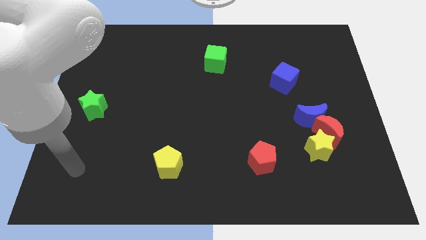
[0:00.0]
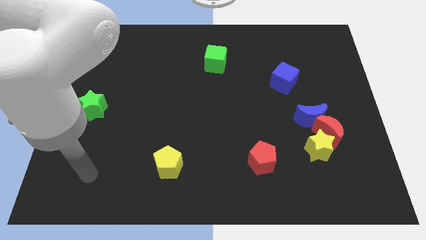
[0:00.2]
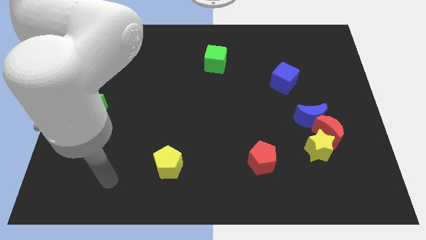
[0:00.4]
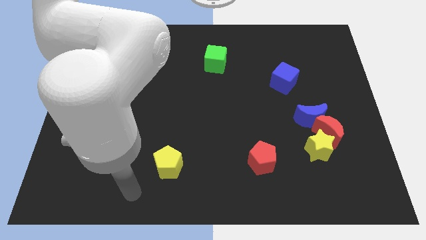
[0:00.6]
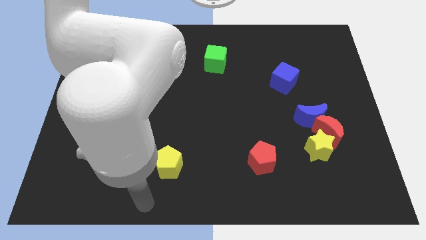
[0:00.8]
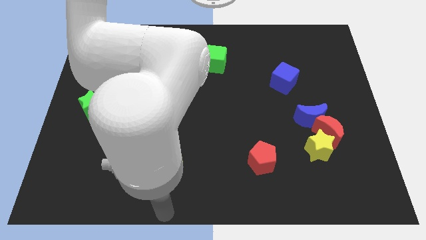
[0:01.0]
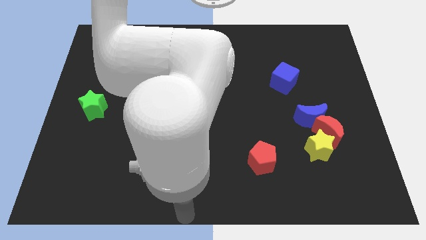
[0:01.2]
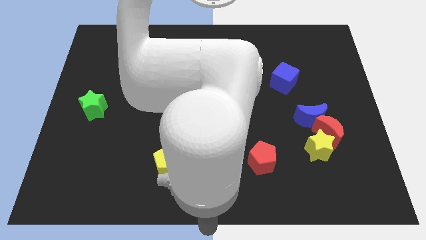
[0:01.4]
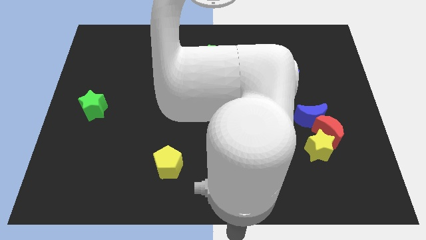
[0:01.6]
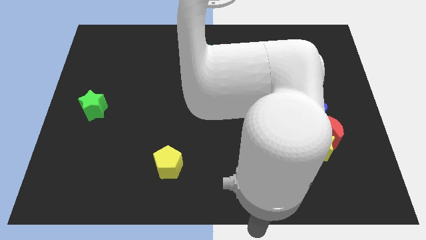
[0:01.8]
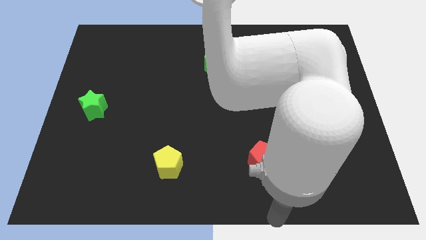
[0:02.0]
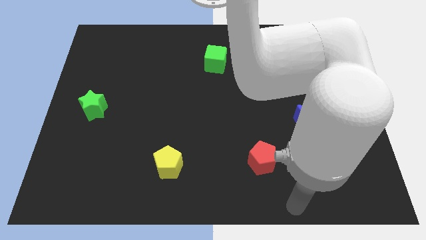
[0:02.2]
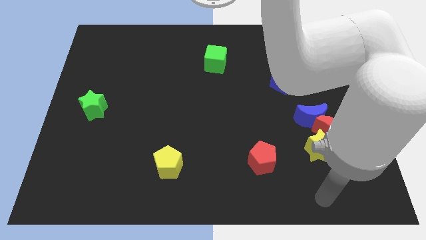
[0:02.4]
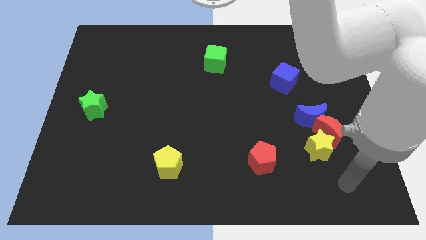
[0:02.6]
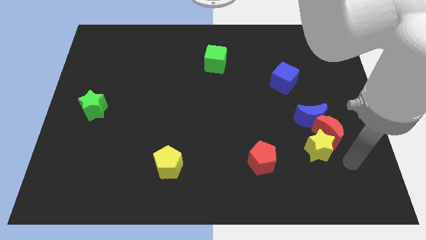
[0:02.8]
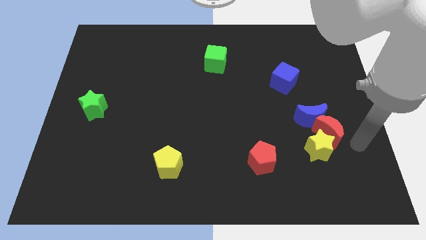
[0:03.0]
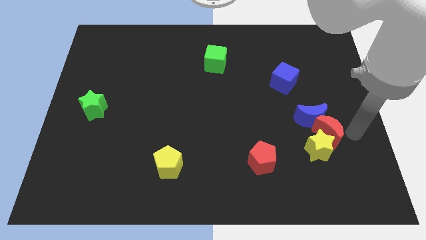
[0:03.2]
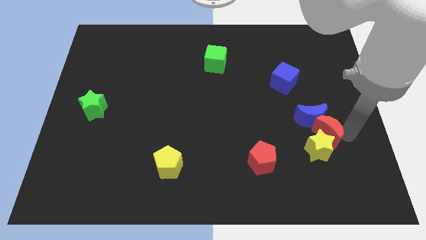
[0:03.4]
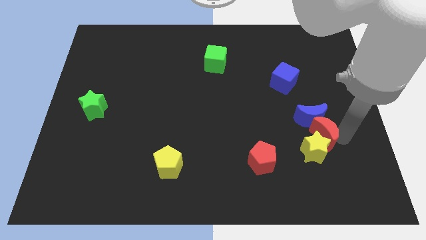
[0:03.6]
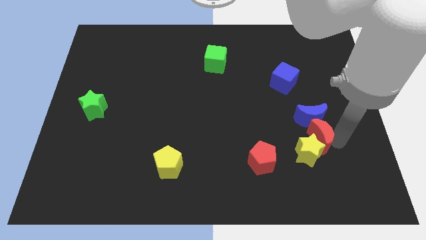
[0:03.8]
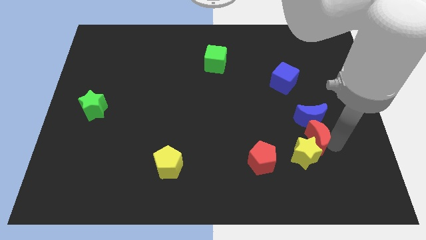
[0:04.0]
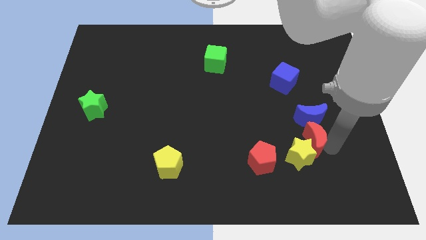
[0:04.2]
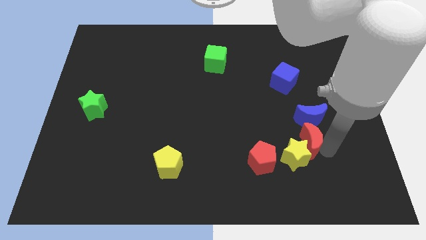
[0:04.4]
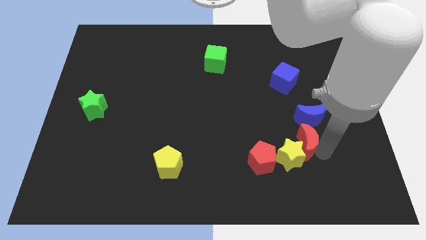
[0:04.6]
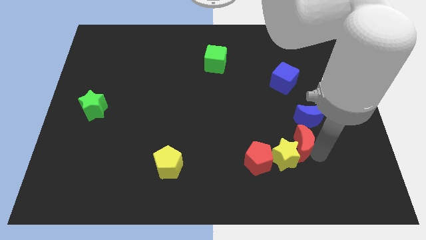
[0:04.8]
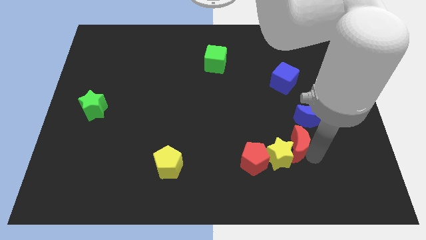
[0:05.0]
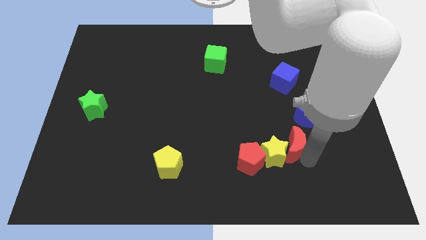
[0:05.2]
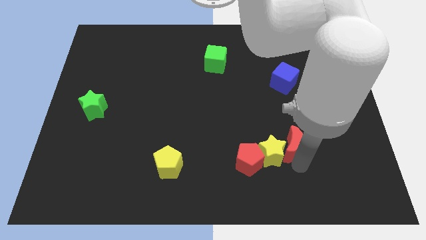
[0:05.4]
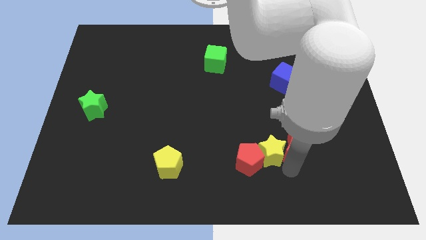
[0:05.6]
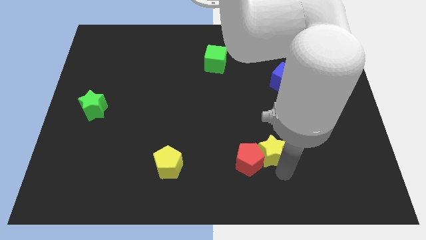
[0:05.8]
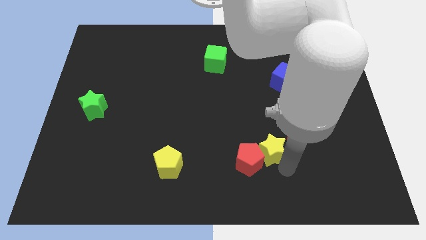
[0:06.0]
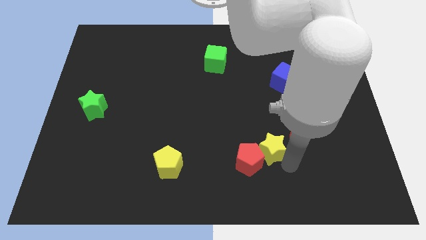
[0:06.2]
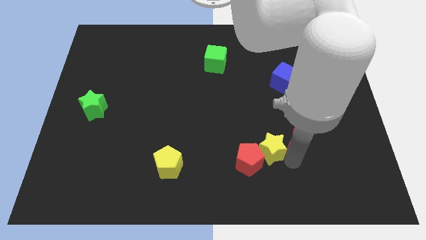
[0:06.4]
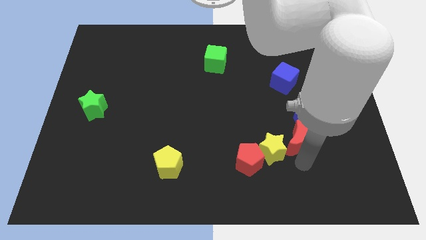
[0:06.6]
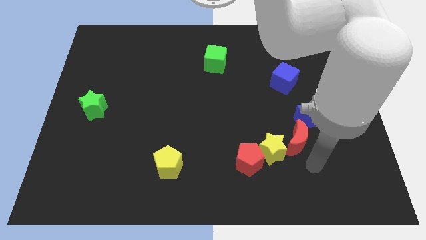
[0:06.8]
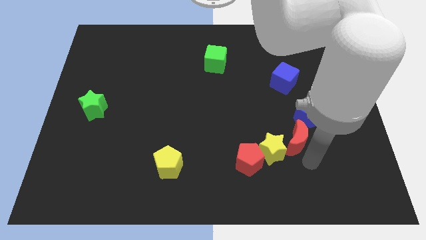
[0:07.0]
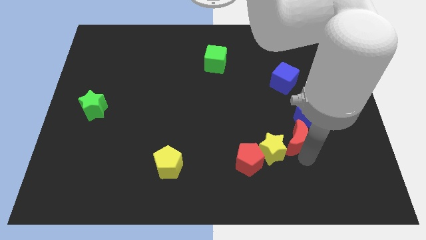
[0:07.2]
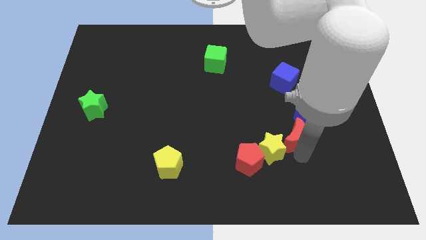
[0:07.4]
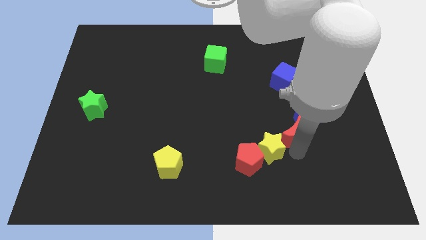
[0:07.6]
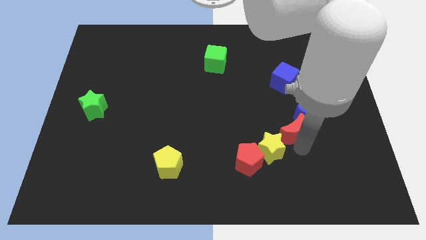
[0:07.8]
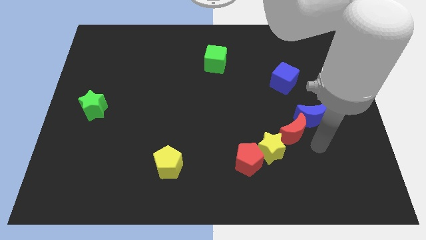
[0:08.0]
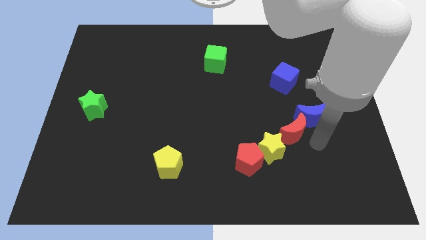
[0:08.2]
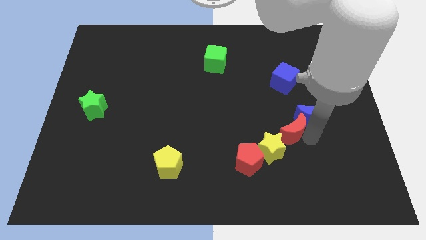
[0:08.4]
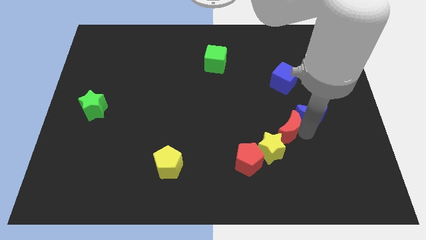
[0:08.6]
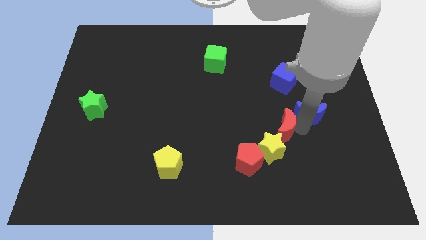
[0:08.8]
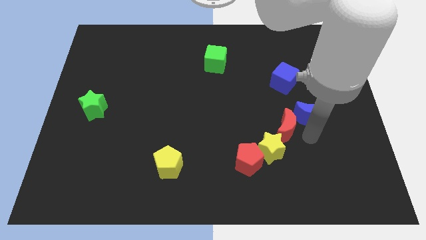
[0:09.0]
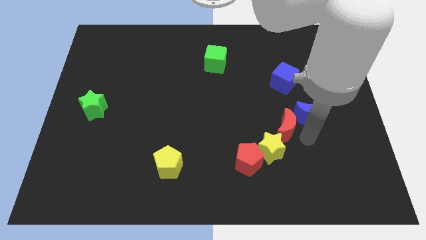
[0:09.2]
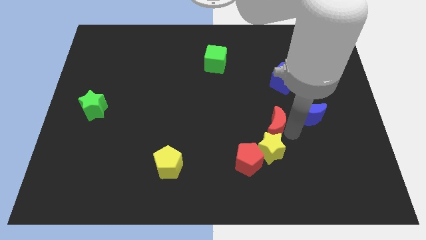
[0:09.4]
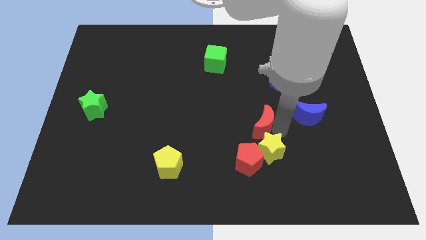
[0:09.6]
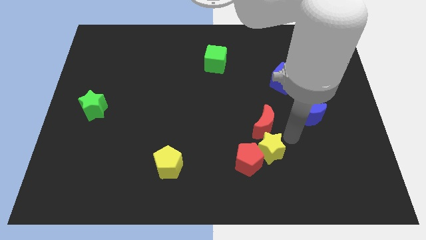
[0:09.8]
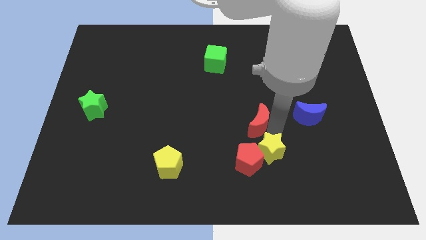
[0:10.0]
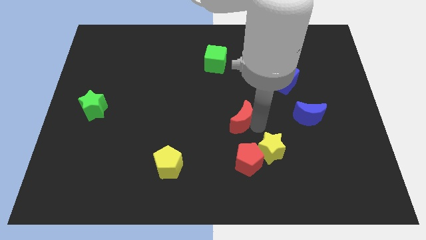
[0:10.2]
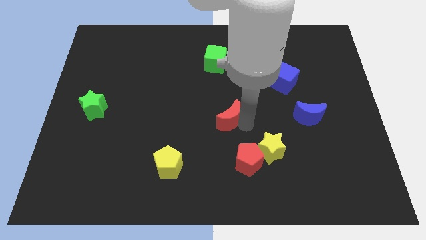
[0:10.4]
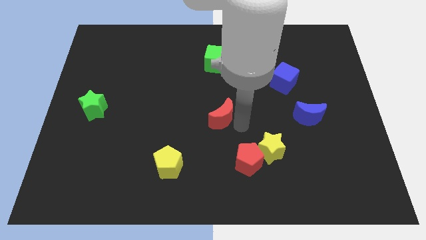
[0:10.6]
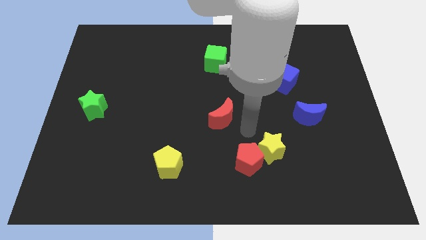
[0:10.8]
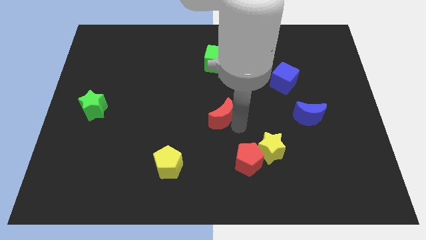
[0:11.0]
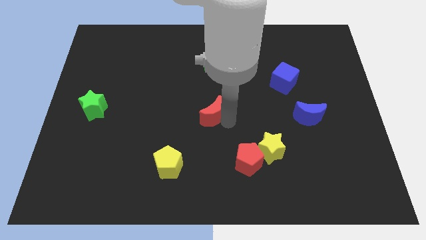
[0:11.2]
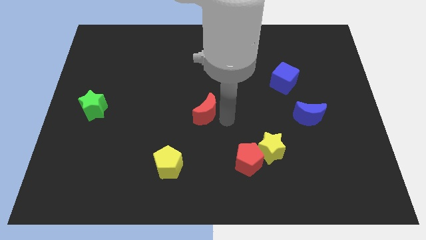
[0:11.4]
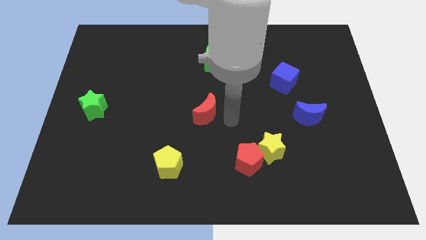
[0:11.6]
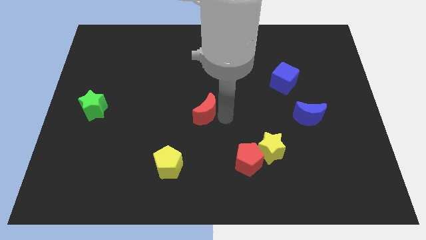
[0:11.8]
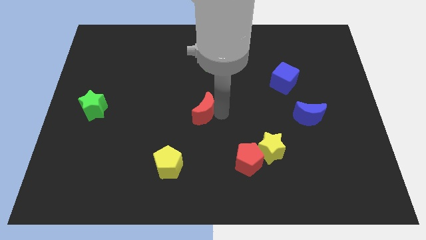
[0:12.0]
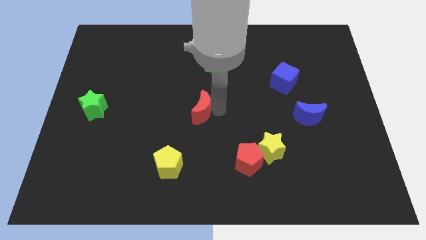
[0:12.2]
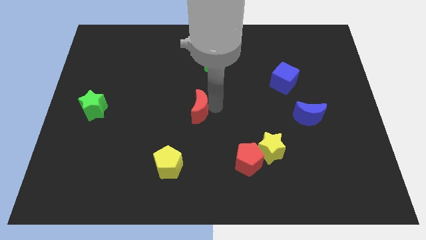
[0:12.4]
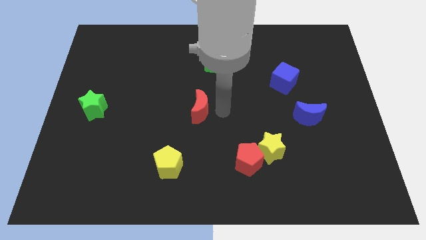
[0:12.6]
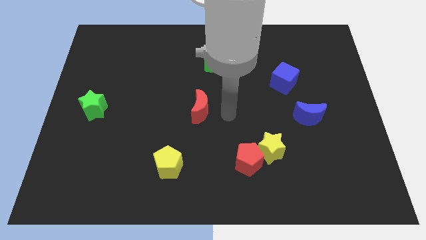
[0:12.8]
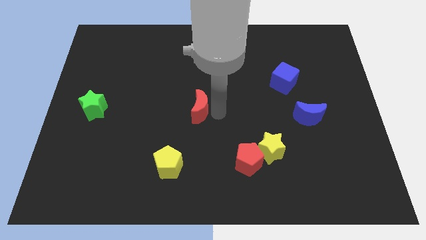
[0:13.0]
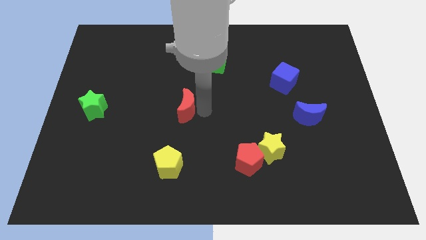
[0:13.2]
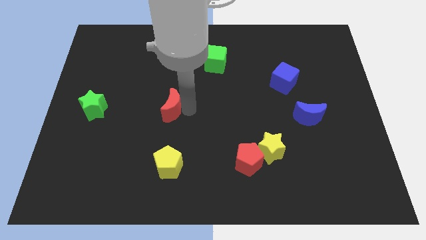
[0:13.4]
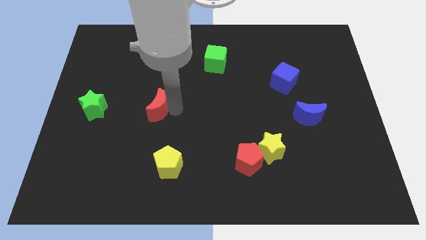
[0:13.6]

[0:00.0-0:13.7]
push the red moon just right of the green star

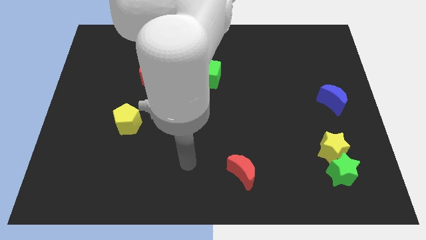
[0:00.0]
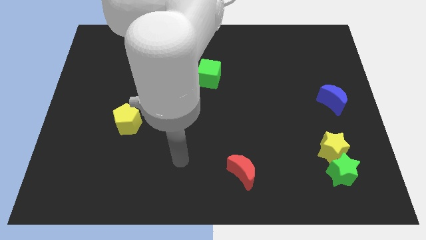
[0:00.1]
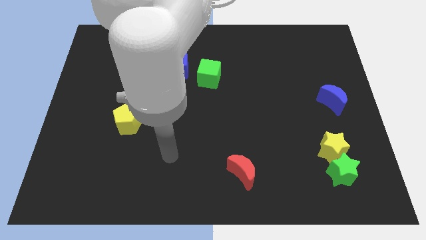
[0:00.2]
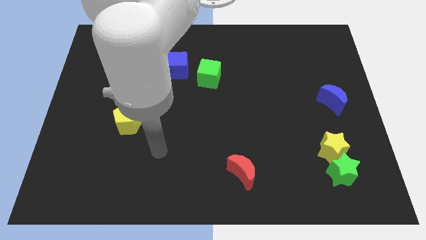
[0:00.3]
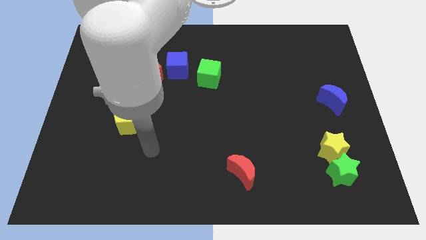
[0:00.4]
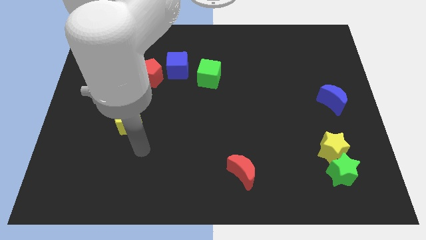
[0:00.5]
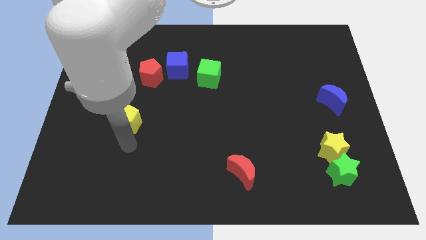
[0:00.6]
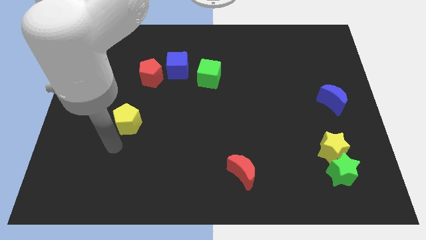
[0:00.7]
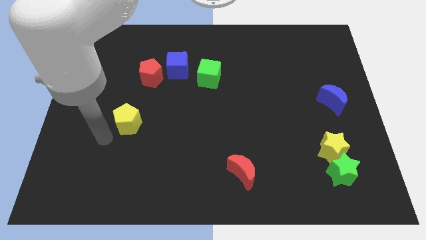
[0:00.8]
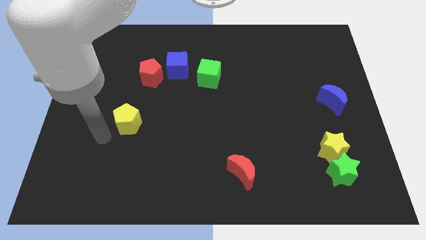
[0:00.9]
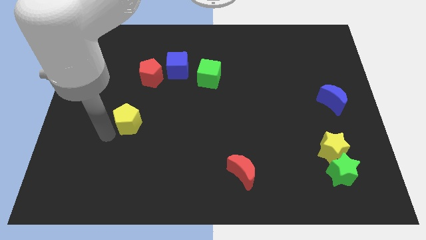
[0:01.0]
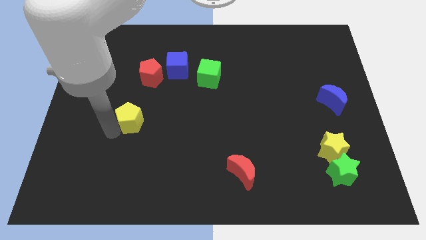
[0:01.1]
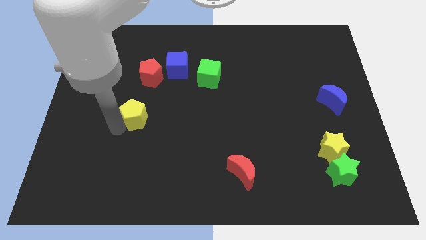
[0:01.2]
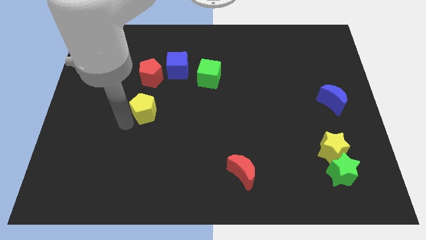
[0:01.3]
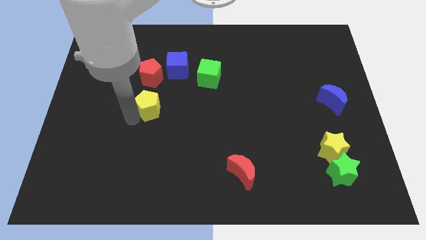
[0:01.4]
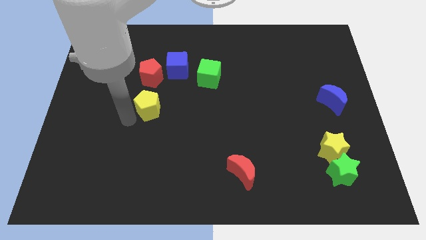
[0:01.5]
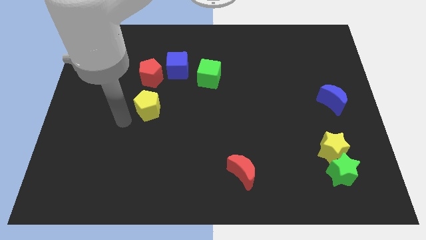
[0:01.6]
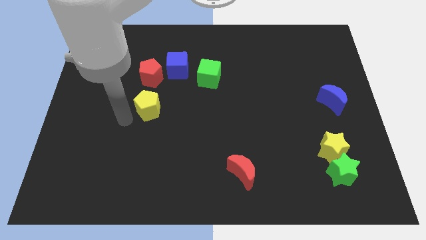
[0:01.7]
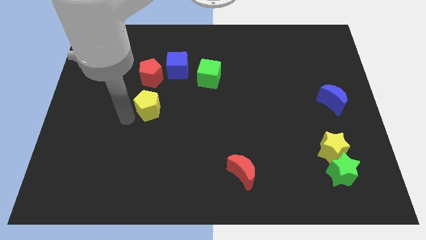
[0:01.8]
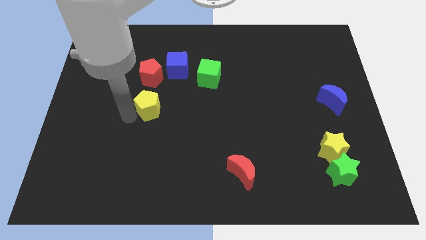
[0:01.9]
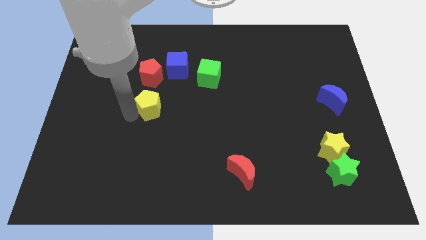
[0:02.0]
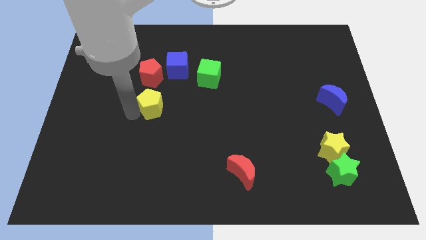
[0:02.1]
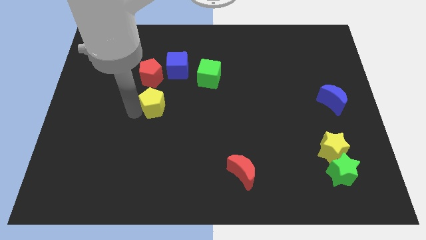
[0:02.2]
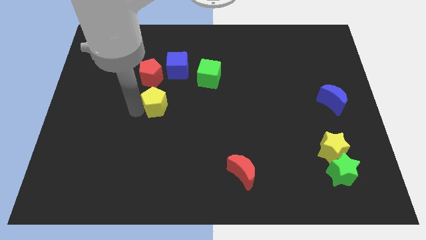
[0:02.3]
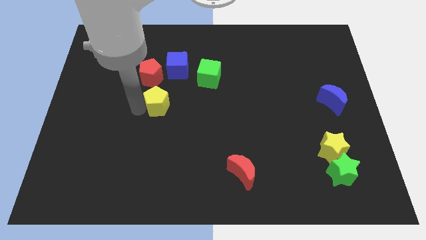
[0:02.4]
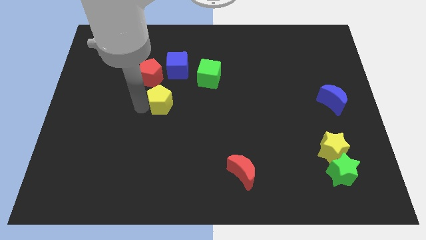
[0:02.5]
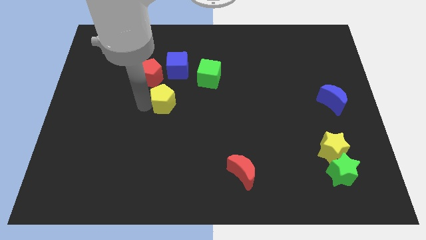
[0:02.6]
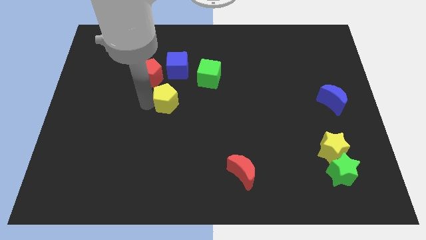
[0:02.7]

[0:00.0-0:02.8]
put the yellow pentagon to the bottom left side of the green cube
